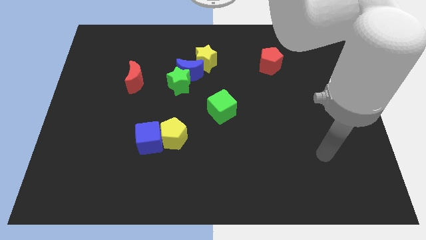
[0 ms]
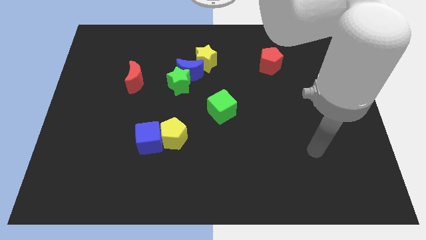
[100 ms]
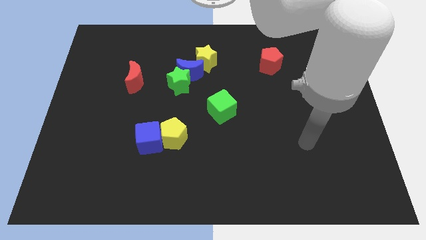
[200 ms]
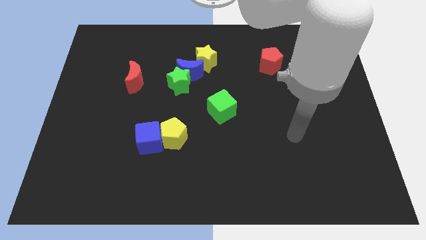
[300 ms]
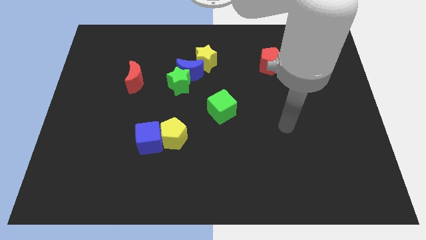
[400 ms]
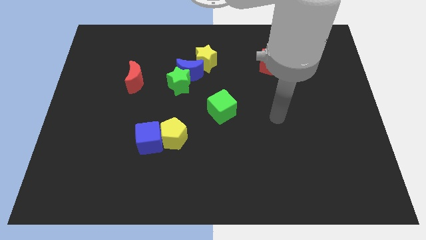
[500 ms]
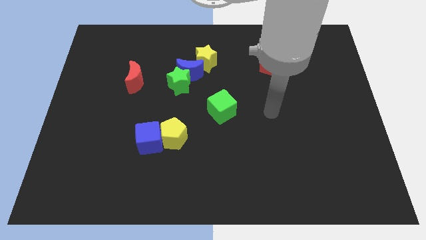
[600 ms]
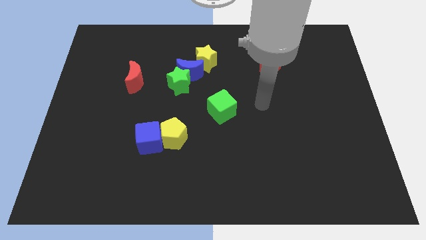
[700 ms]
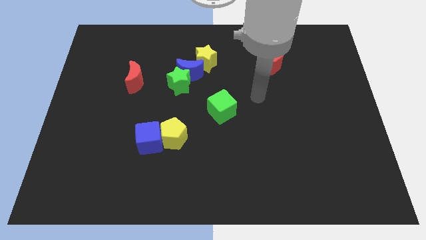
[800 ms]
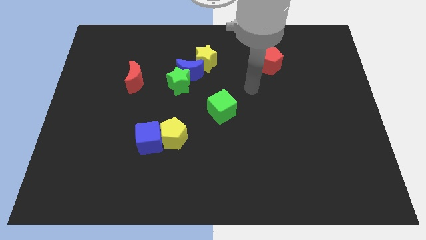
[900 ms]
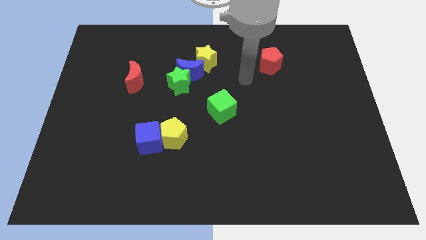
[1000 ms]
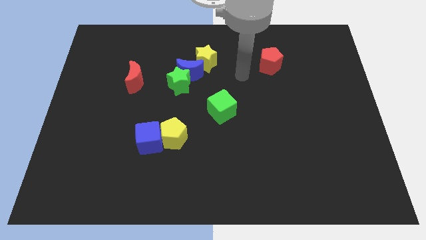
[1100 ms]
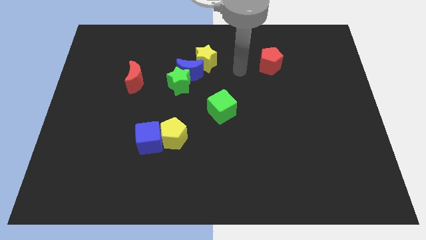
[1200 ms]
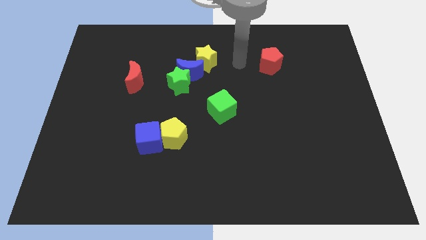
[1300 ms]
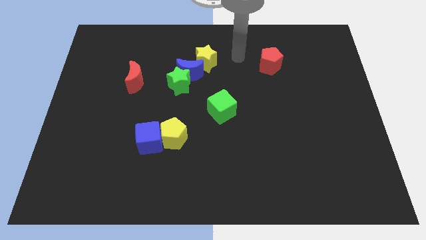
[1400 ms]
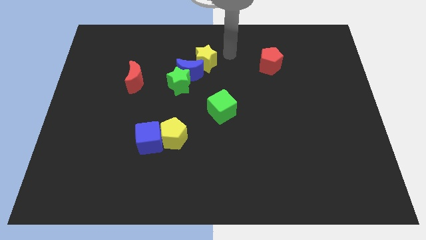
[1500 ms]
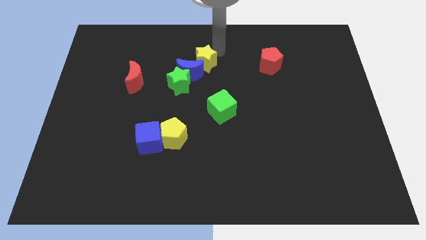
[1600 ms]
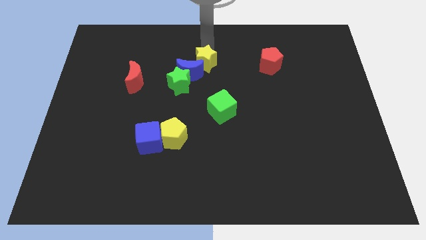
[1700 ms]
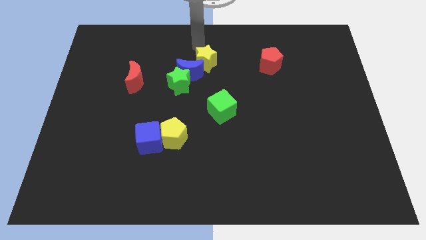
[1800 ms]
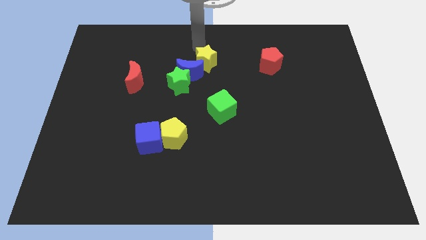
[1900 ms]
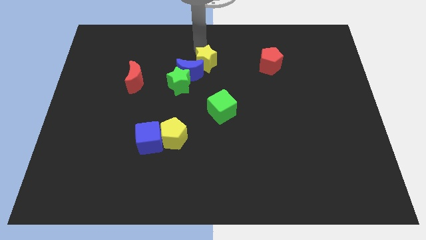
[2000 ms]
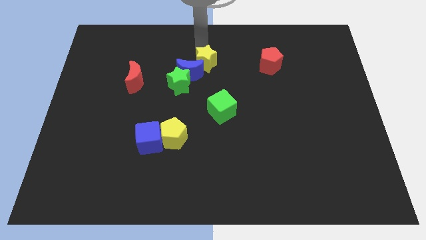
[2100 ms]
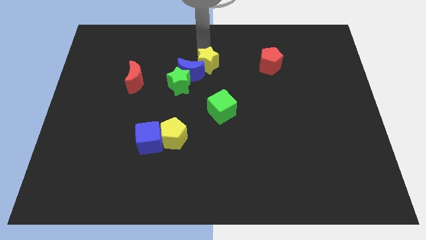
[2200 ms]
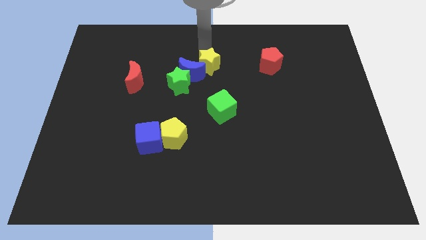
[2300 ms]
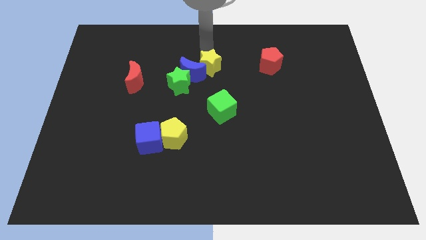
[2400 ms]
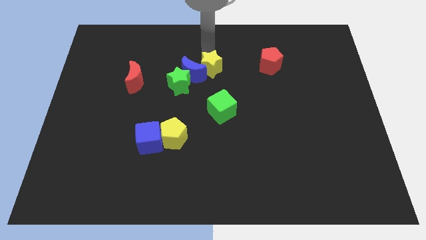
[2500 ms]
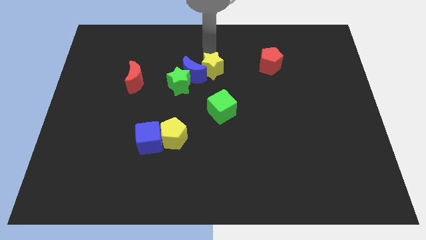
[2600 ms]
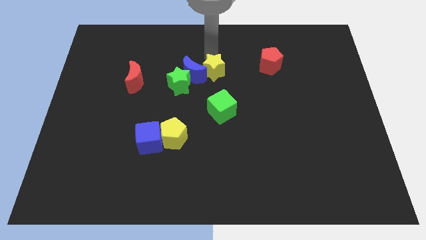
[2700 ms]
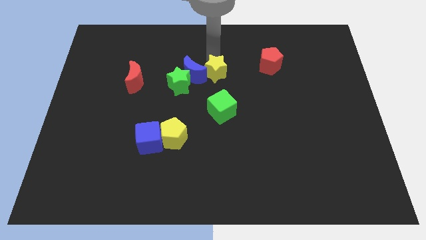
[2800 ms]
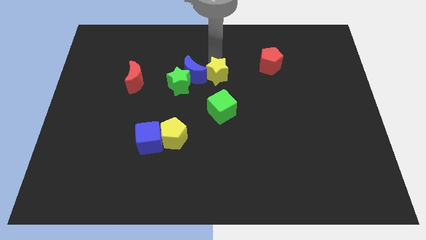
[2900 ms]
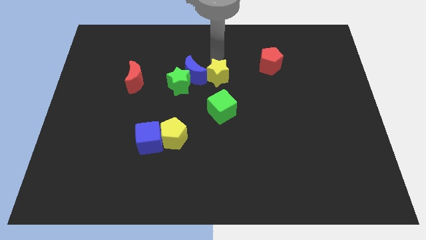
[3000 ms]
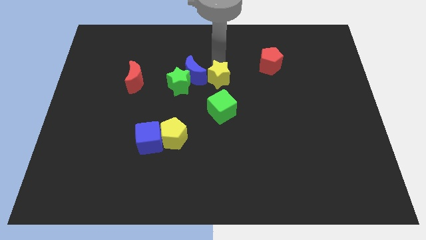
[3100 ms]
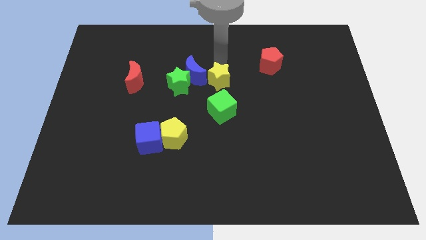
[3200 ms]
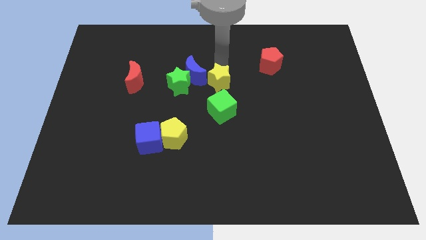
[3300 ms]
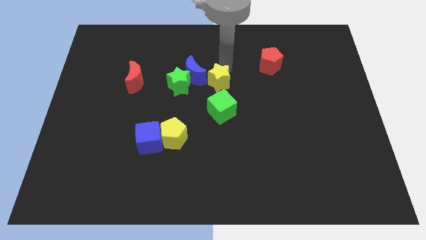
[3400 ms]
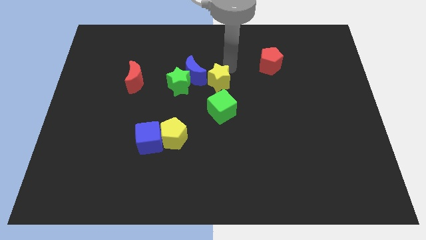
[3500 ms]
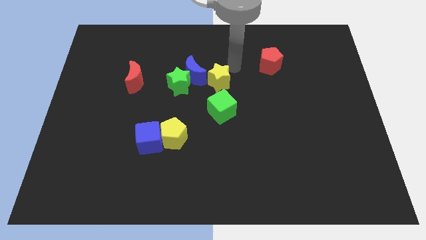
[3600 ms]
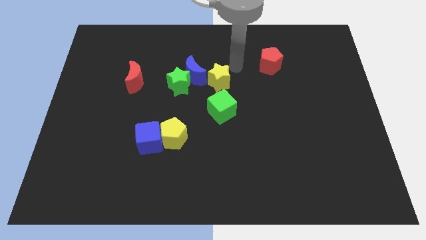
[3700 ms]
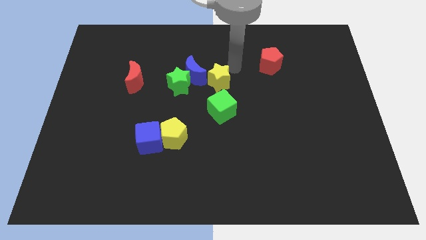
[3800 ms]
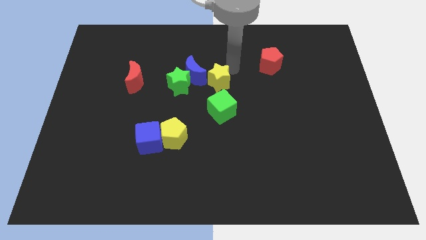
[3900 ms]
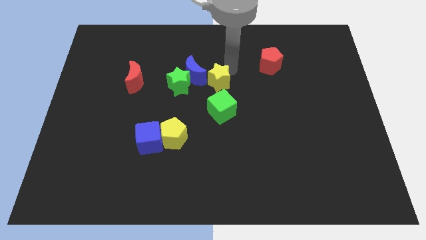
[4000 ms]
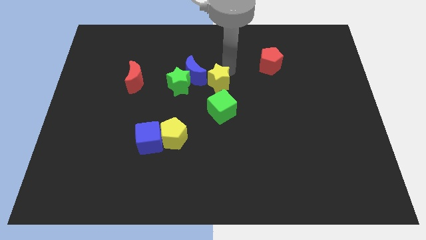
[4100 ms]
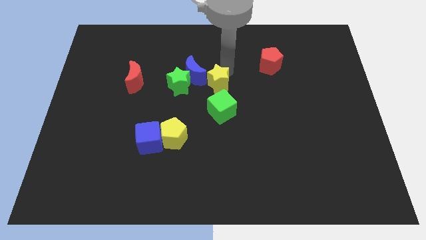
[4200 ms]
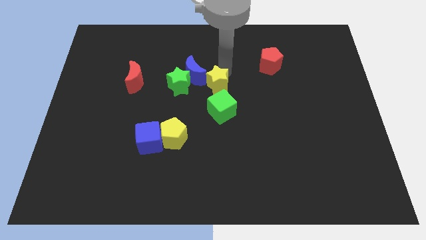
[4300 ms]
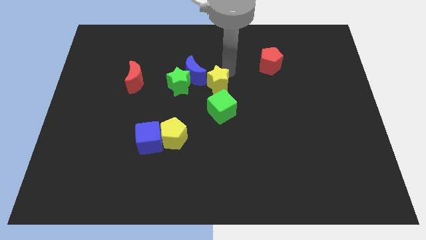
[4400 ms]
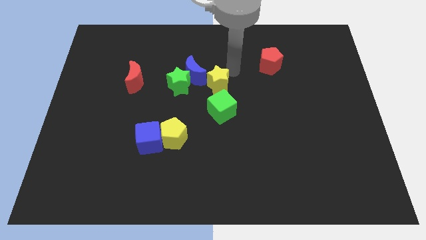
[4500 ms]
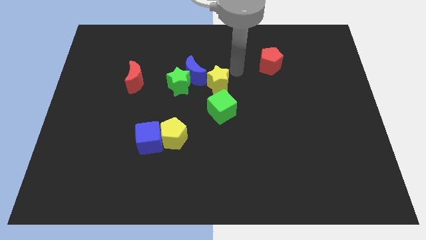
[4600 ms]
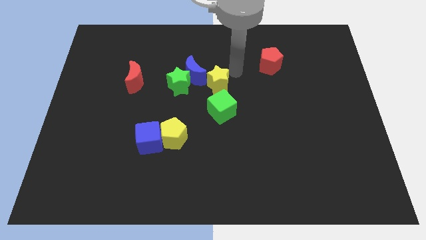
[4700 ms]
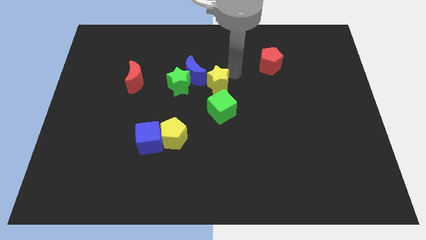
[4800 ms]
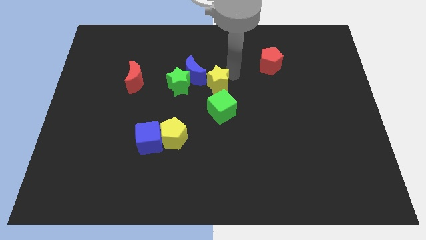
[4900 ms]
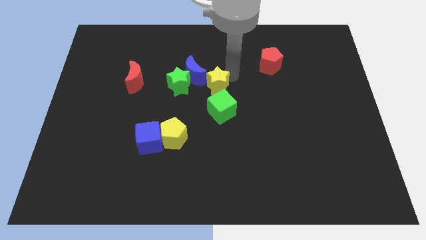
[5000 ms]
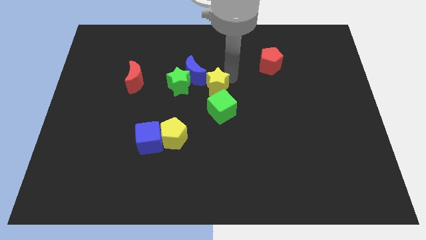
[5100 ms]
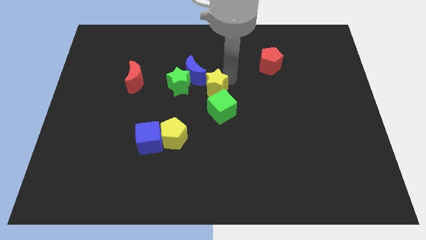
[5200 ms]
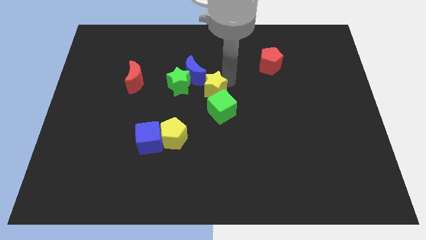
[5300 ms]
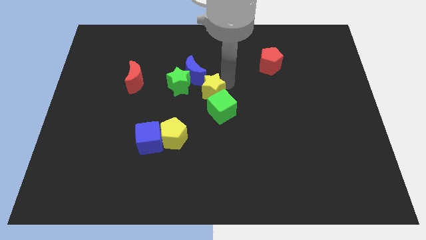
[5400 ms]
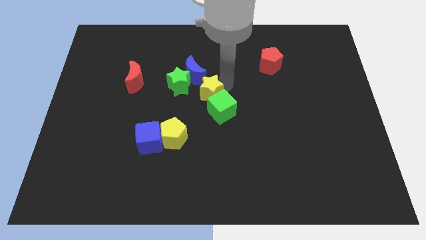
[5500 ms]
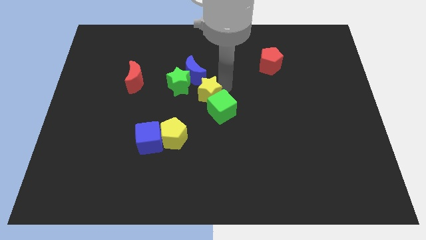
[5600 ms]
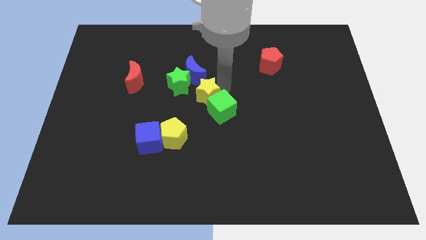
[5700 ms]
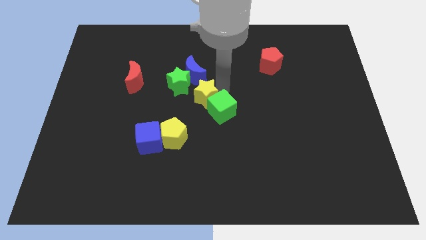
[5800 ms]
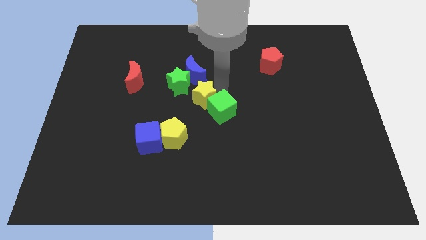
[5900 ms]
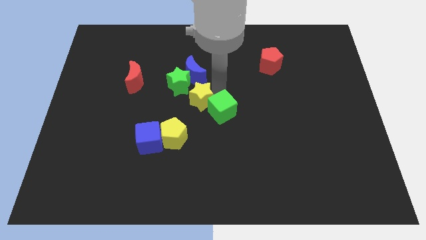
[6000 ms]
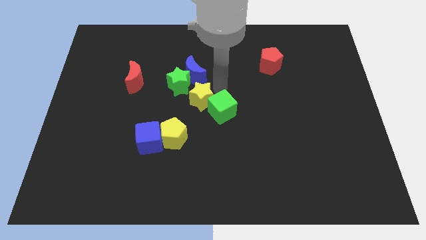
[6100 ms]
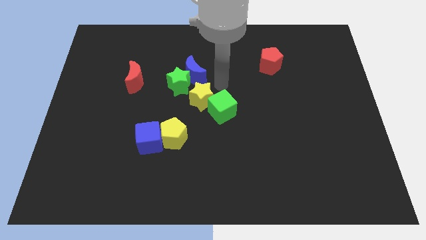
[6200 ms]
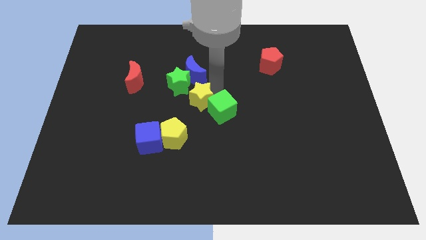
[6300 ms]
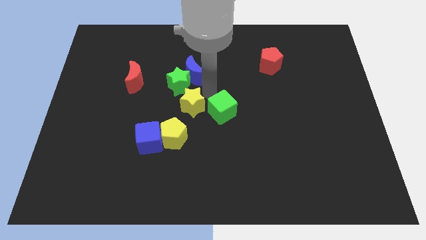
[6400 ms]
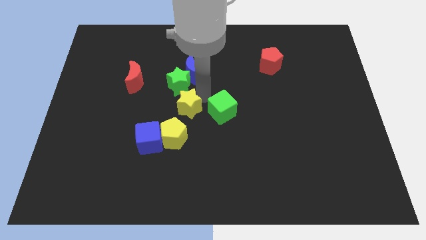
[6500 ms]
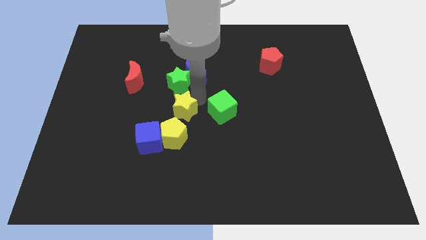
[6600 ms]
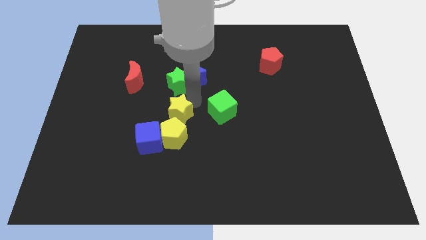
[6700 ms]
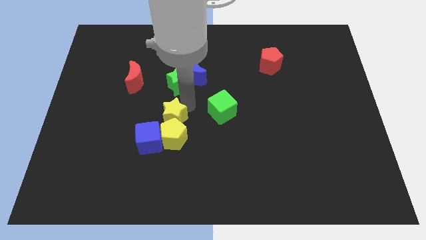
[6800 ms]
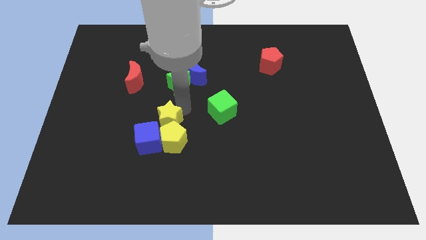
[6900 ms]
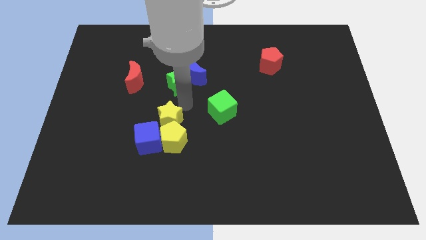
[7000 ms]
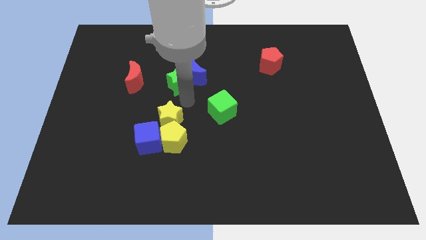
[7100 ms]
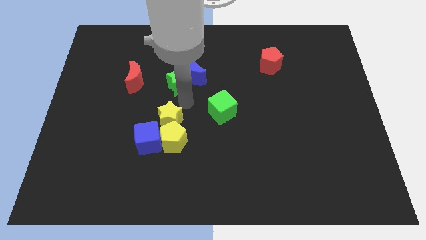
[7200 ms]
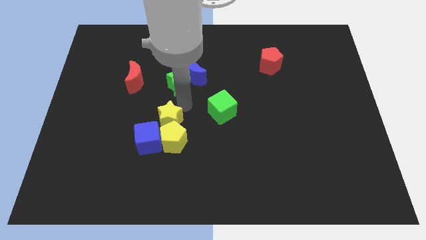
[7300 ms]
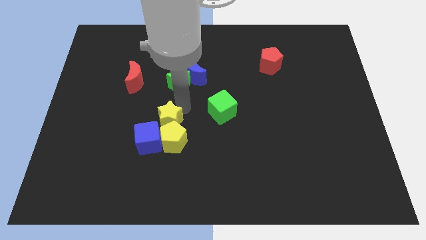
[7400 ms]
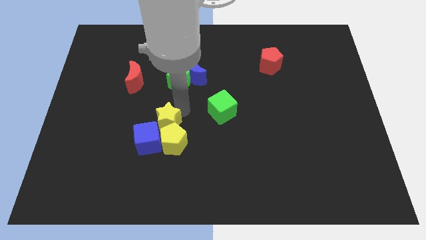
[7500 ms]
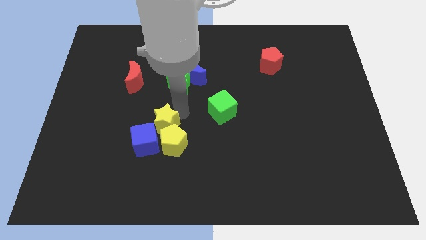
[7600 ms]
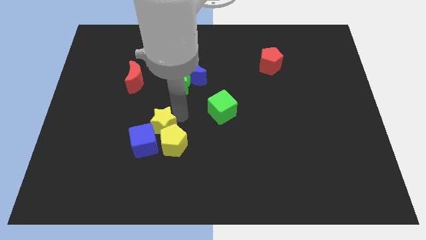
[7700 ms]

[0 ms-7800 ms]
put the yellow star towards the blue cube
